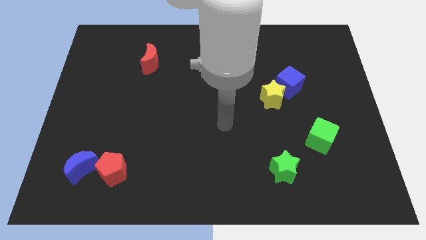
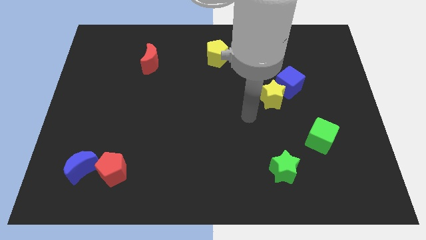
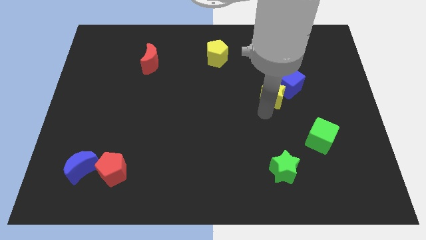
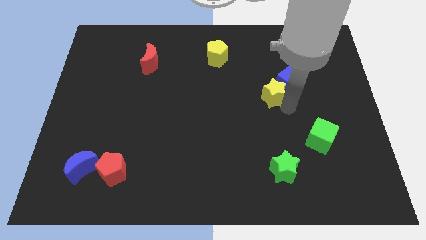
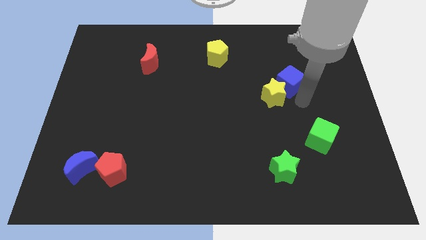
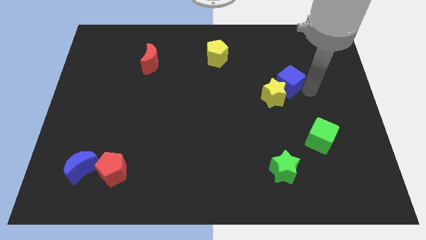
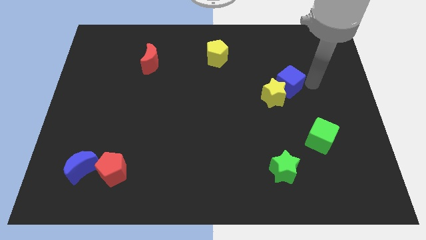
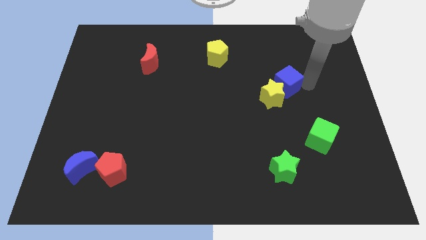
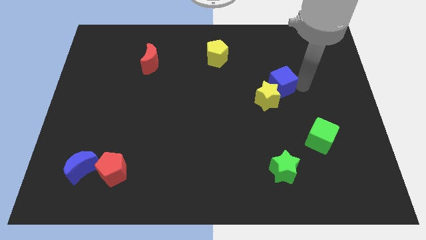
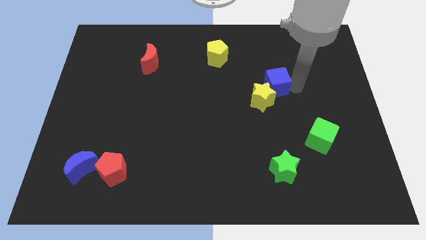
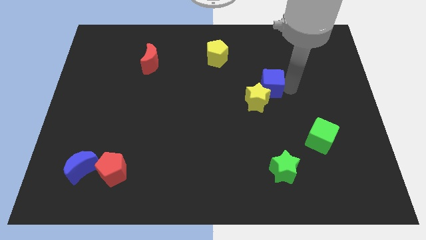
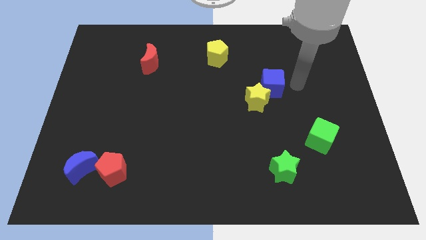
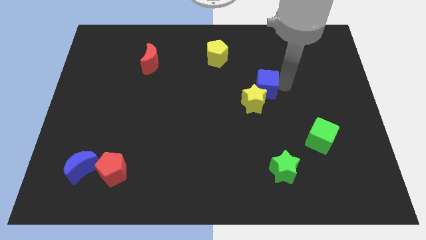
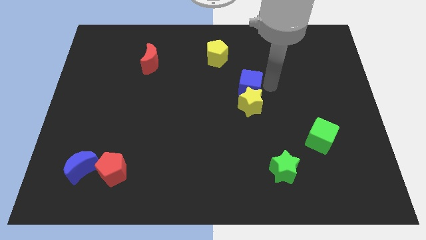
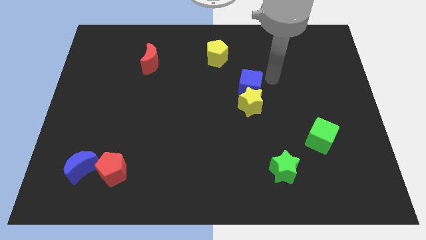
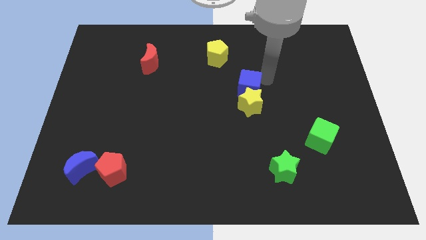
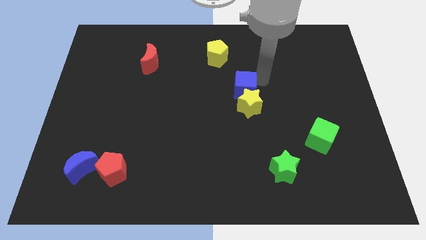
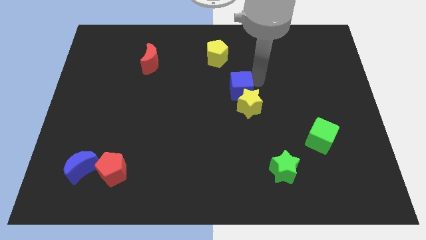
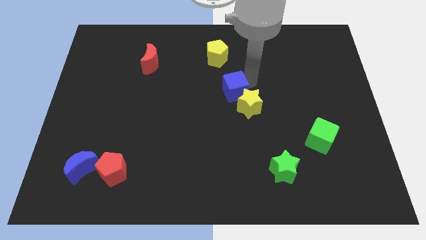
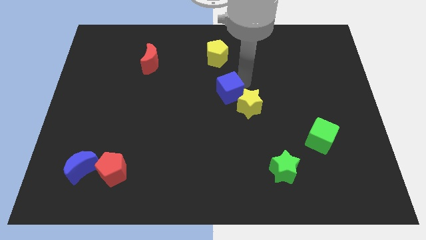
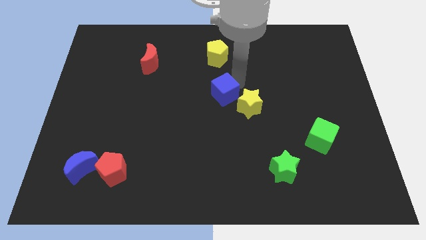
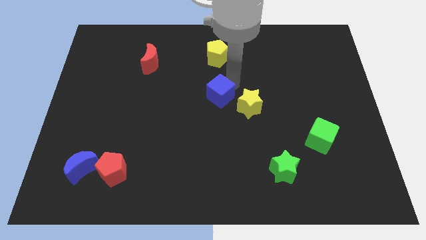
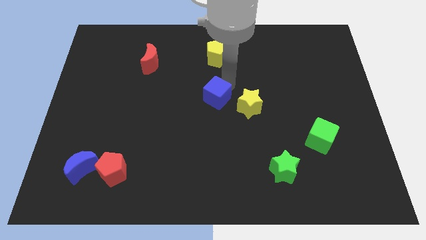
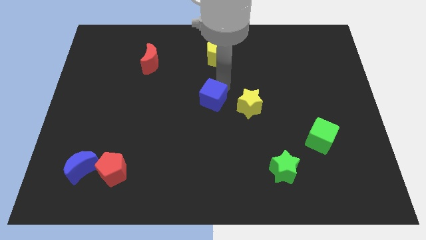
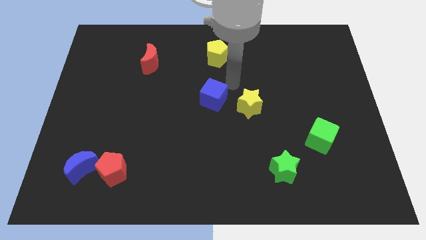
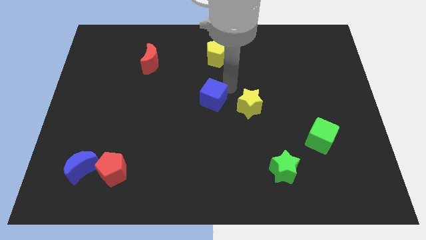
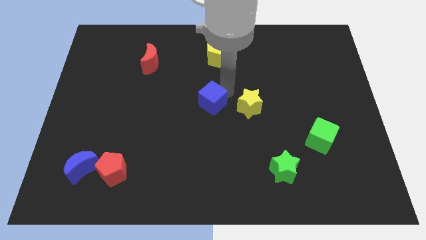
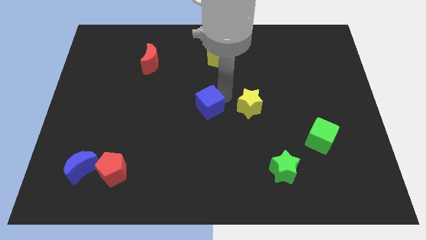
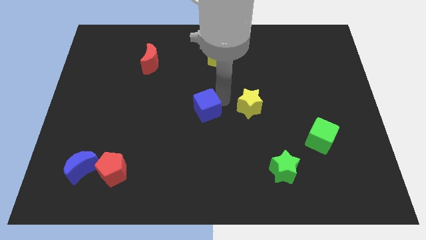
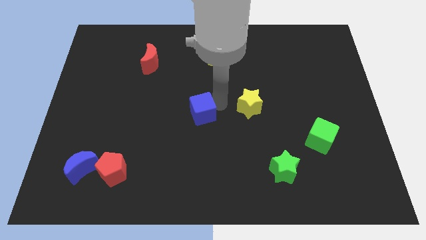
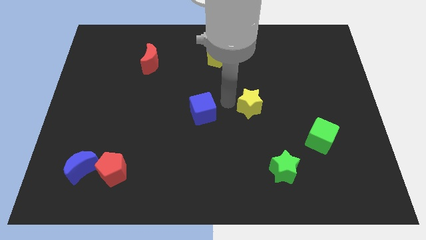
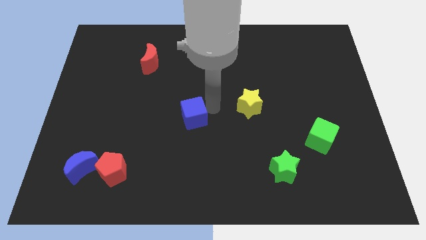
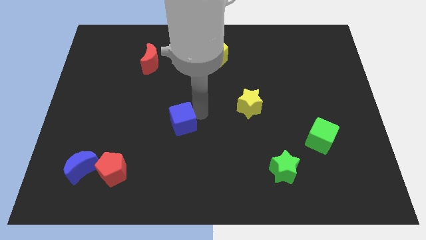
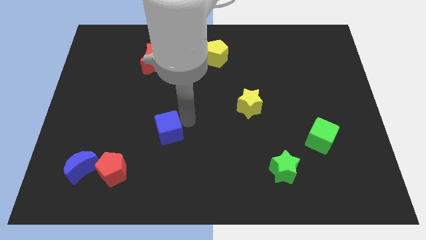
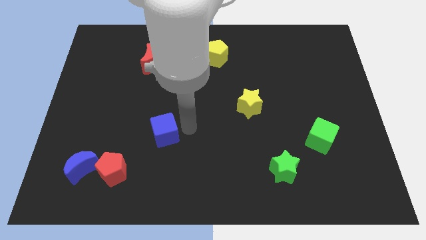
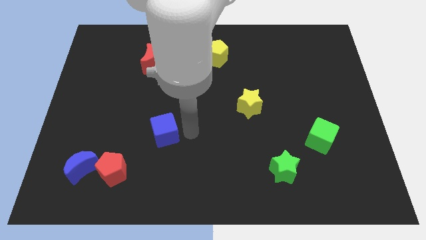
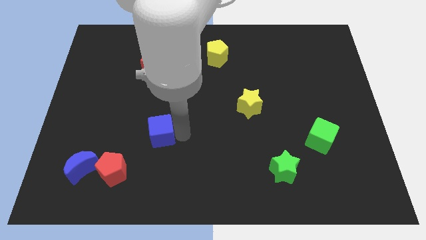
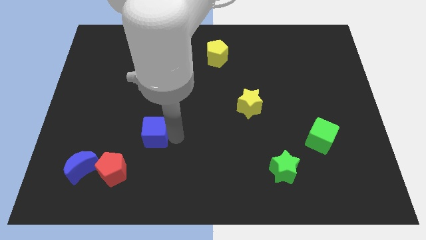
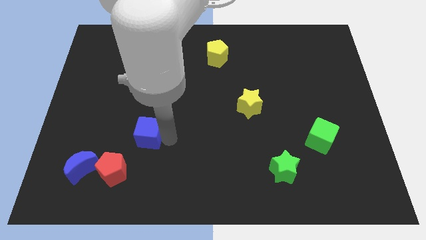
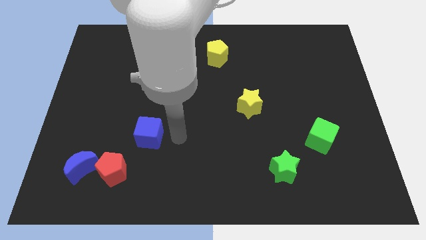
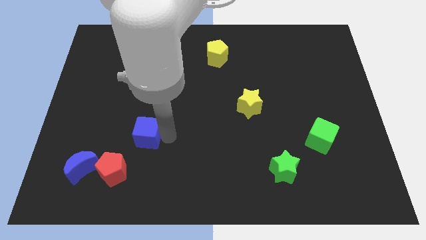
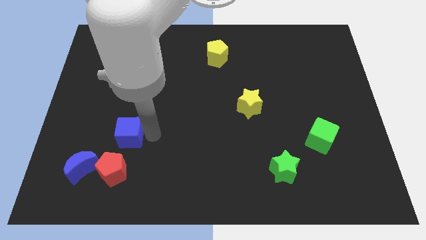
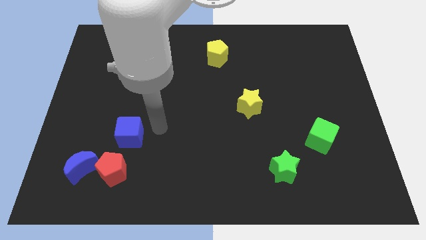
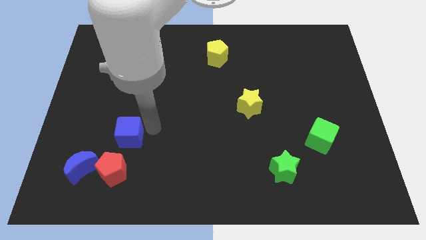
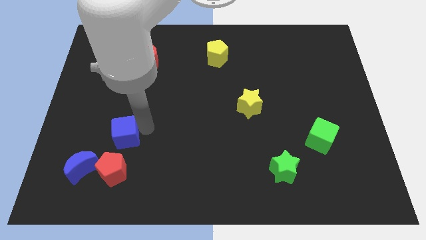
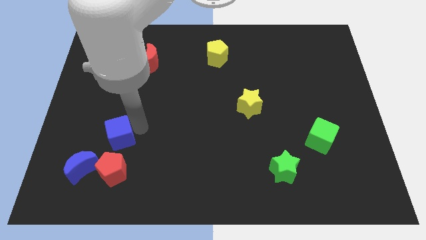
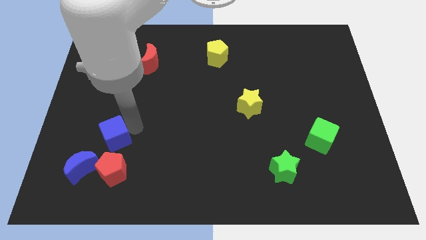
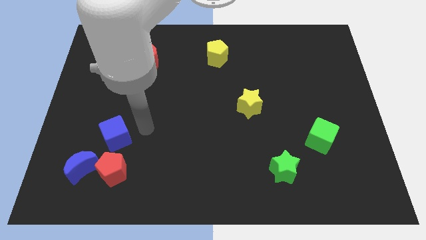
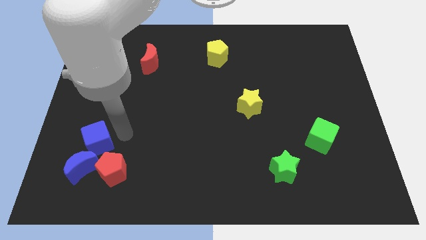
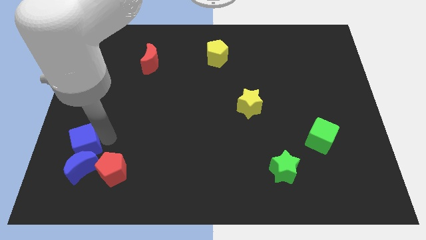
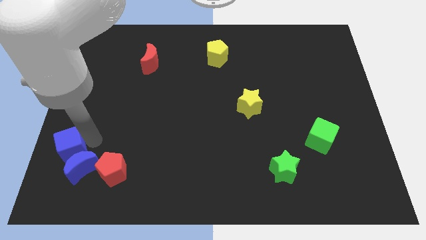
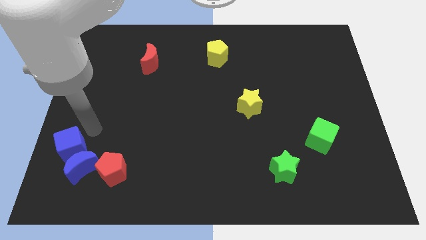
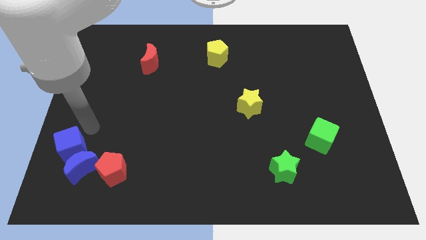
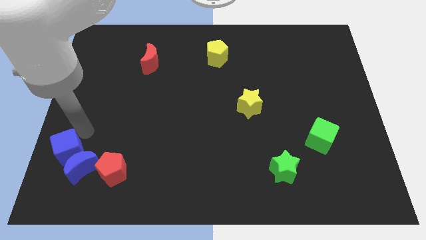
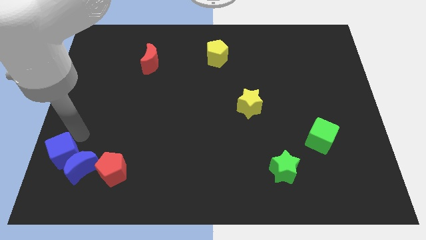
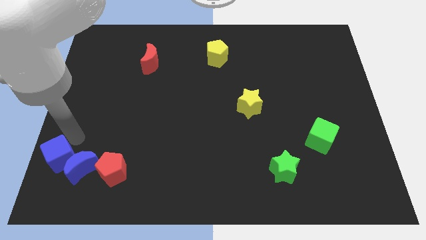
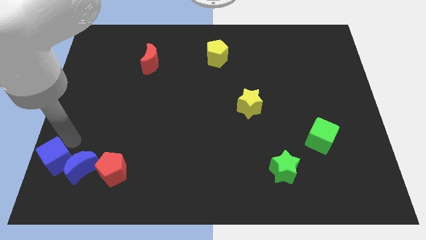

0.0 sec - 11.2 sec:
slide the blue cube to the bottom left of the board

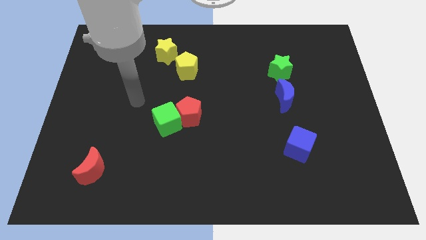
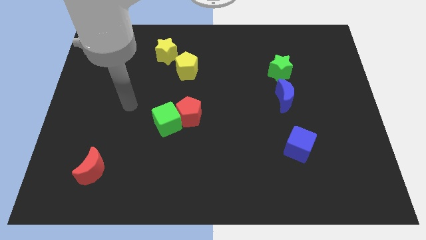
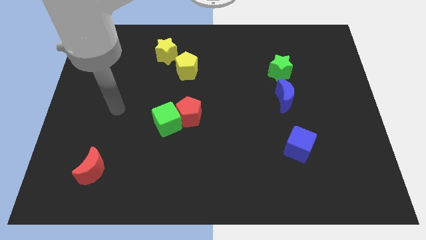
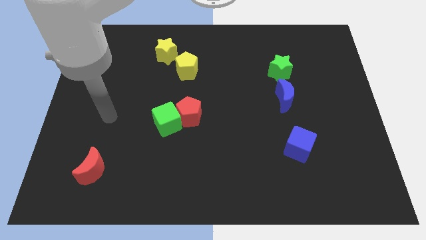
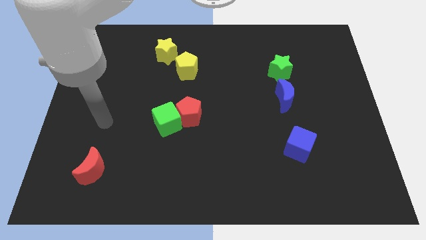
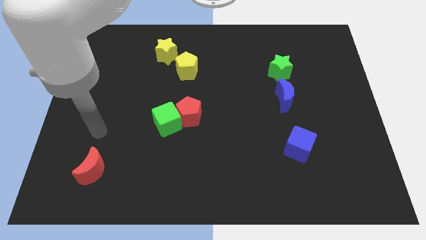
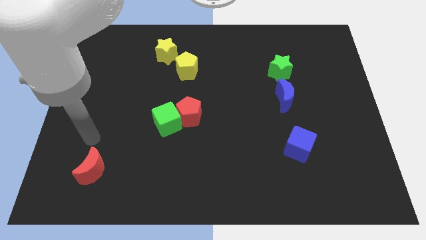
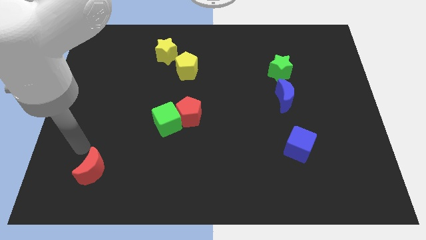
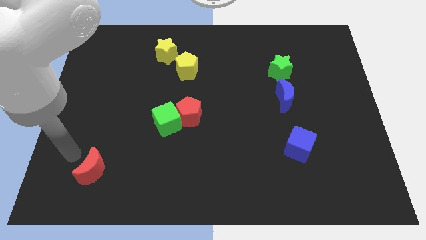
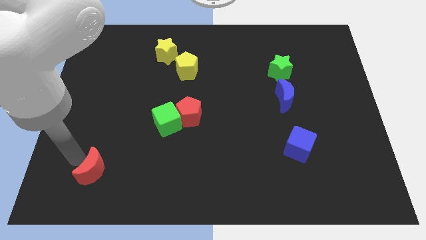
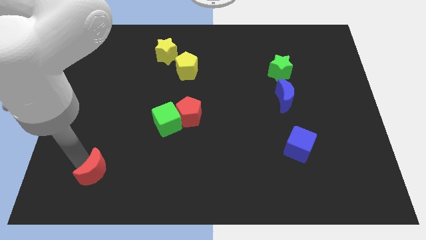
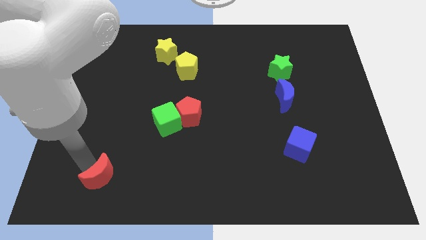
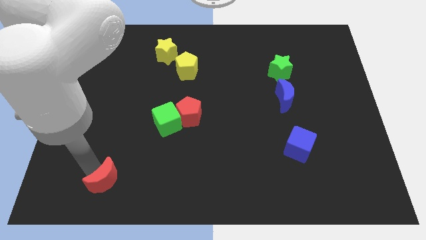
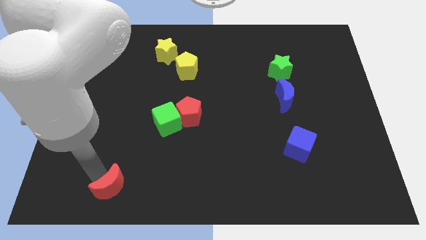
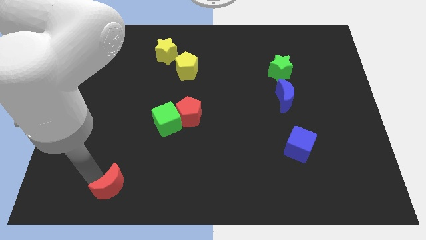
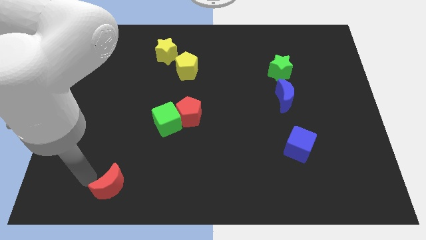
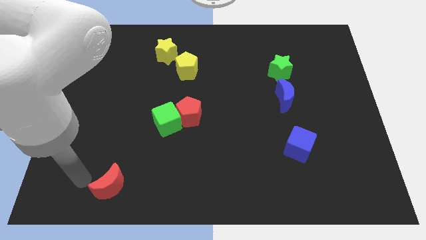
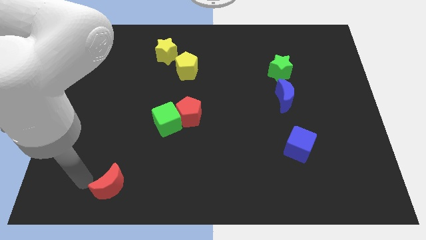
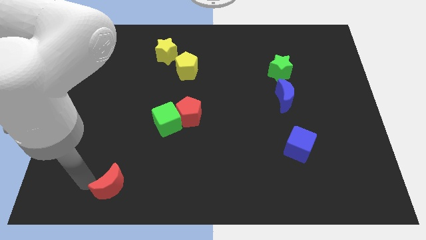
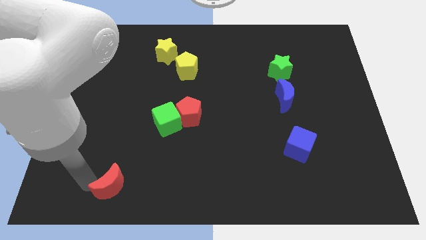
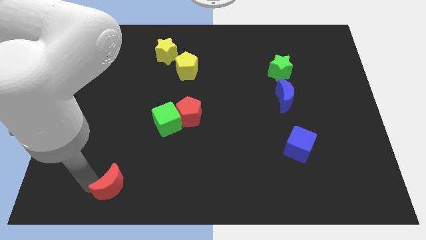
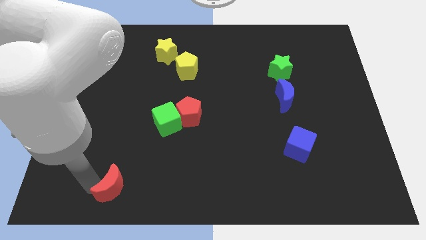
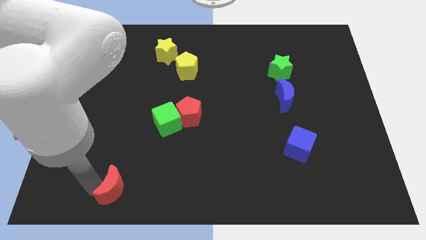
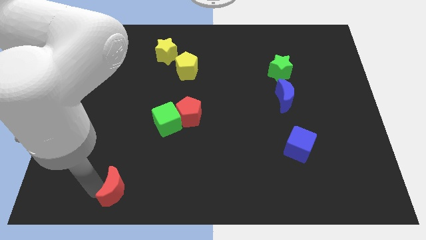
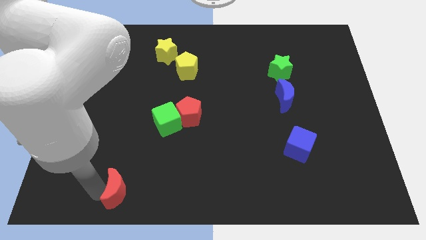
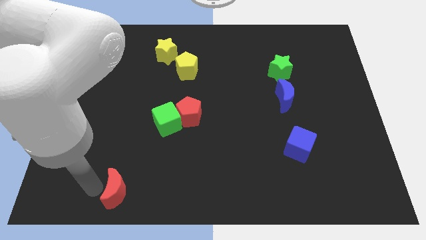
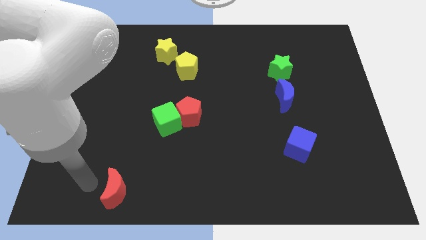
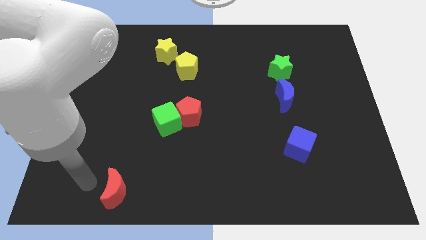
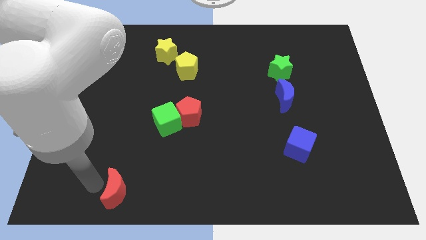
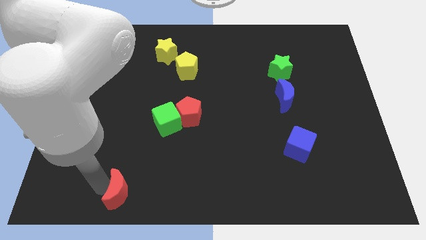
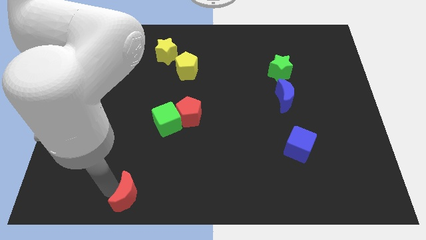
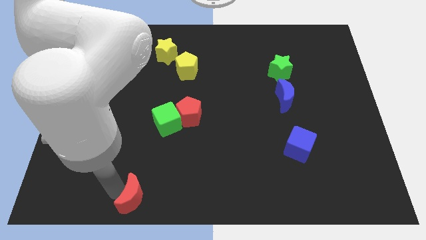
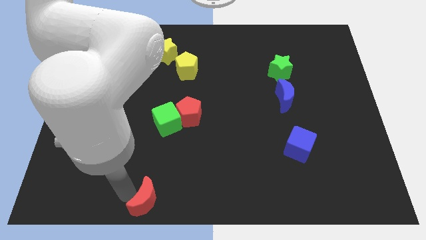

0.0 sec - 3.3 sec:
push the red moon to the bottom side
